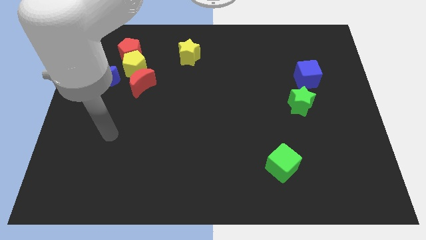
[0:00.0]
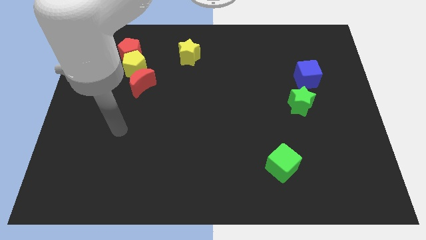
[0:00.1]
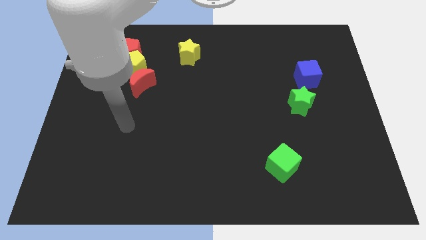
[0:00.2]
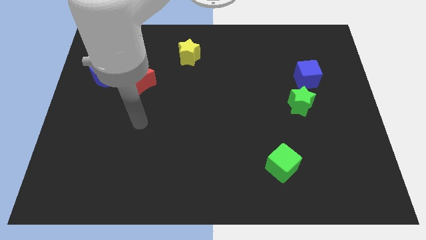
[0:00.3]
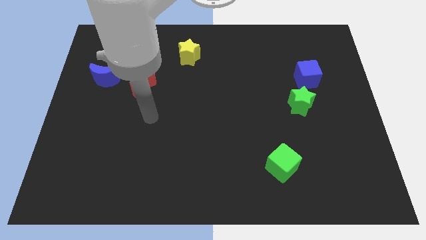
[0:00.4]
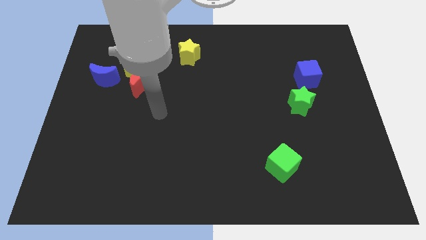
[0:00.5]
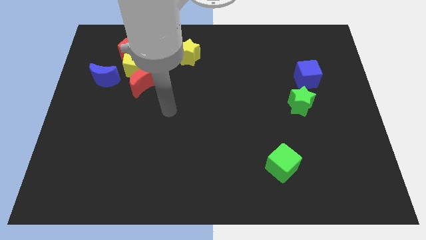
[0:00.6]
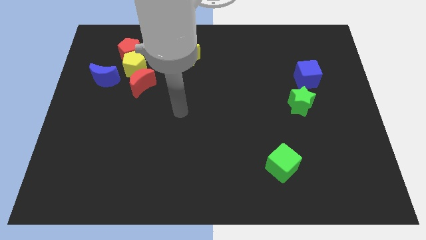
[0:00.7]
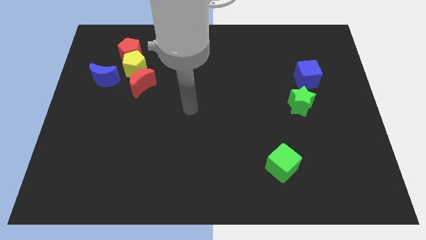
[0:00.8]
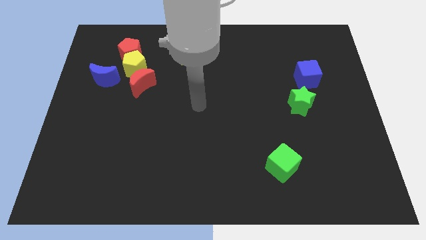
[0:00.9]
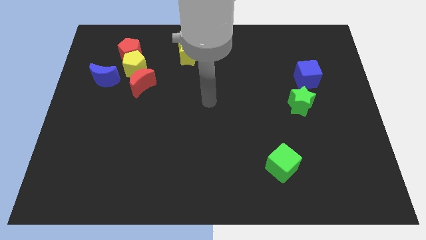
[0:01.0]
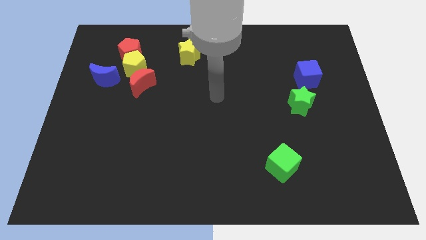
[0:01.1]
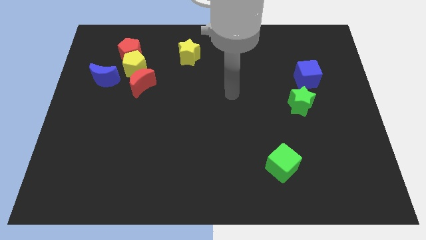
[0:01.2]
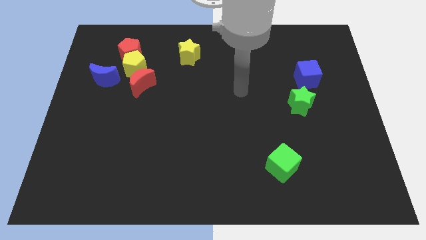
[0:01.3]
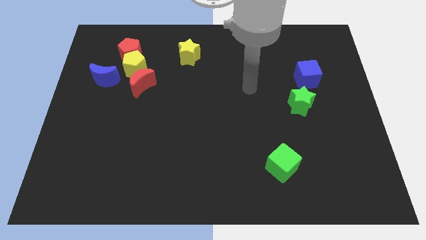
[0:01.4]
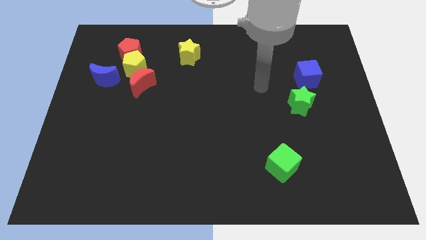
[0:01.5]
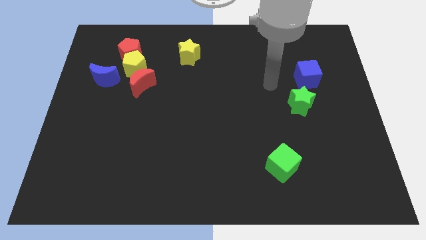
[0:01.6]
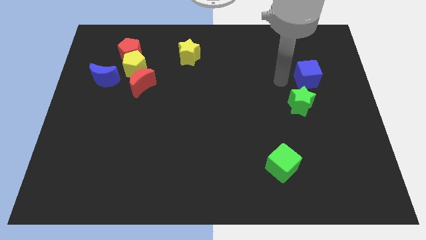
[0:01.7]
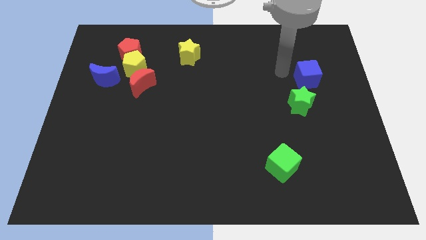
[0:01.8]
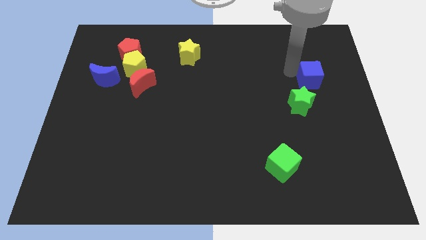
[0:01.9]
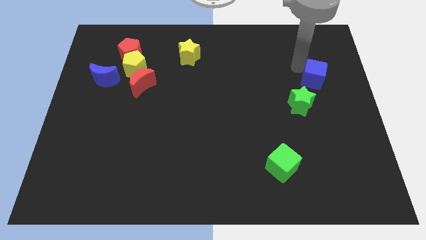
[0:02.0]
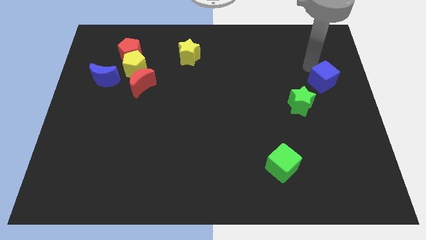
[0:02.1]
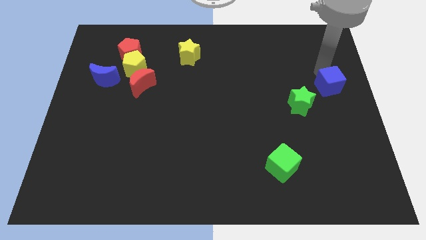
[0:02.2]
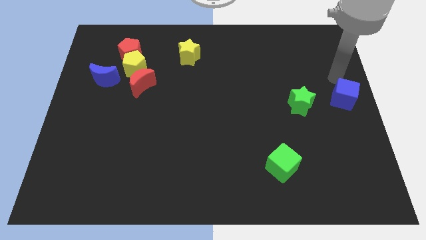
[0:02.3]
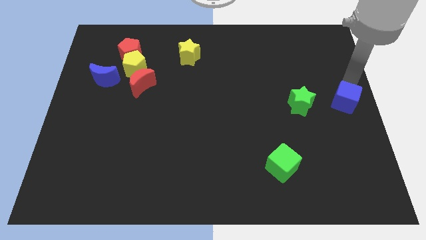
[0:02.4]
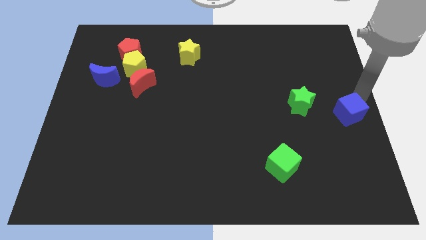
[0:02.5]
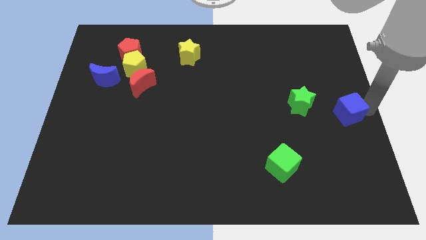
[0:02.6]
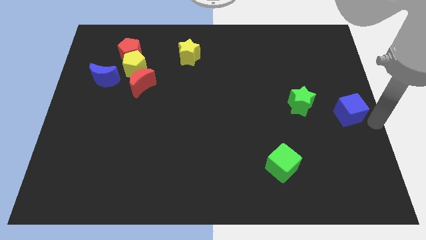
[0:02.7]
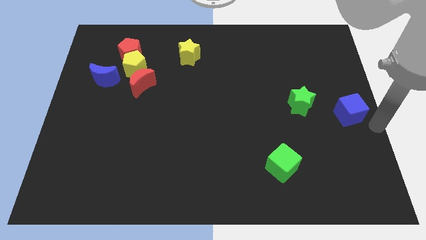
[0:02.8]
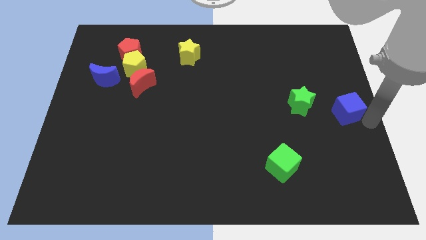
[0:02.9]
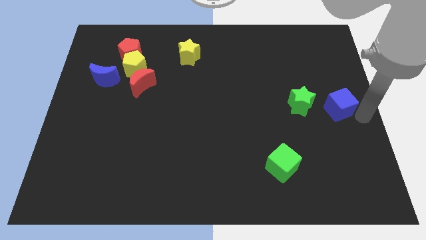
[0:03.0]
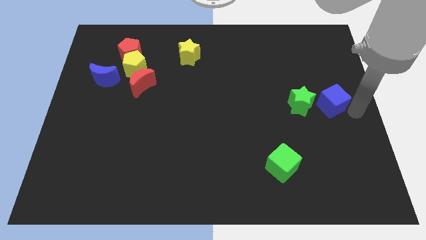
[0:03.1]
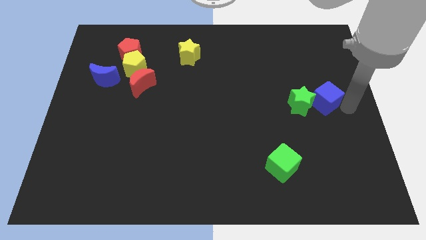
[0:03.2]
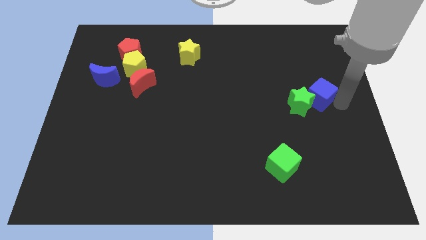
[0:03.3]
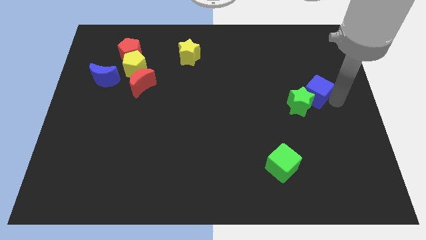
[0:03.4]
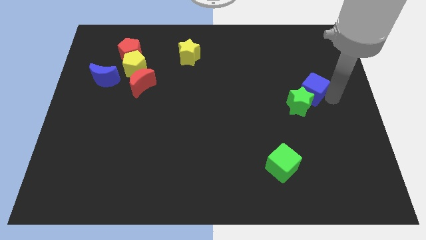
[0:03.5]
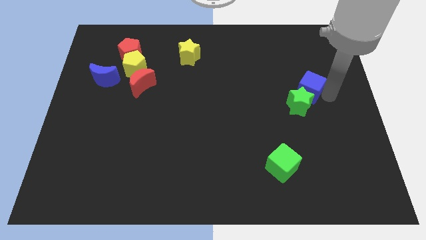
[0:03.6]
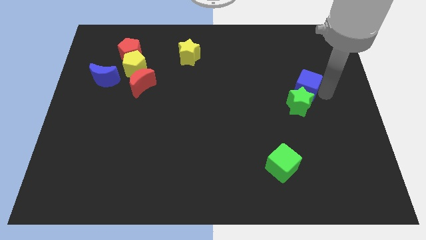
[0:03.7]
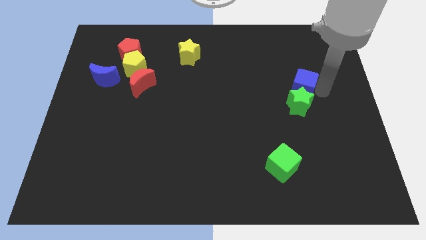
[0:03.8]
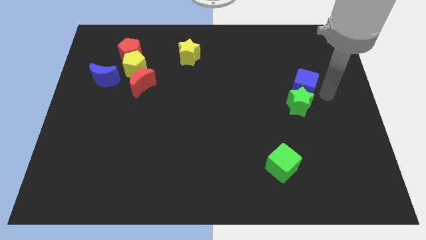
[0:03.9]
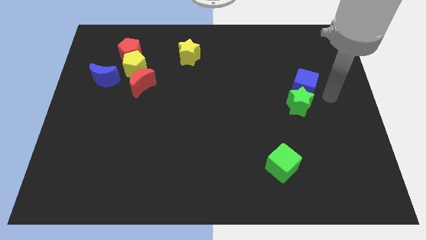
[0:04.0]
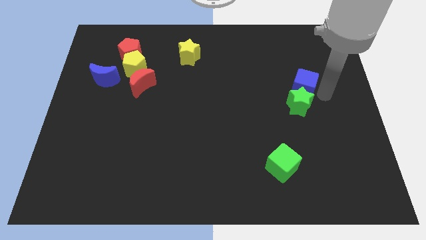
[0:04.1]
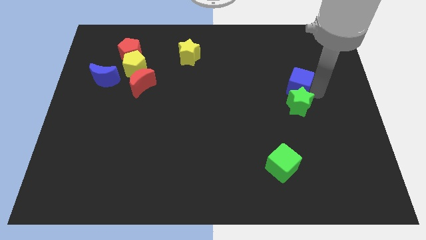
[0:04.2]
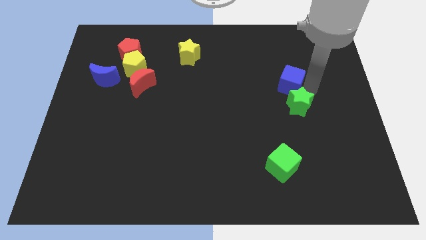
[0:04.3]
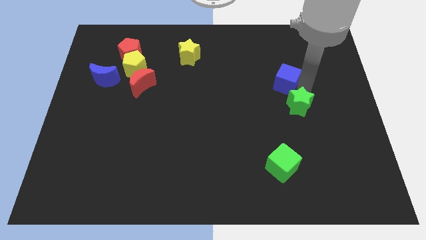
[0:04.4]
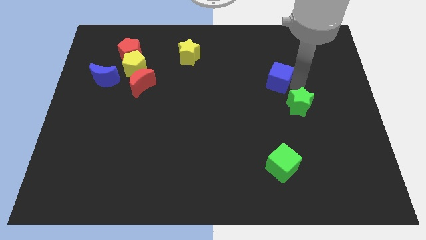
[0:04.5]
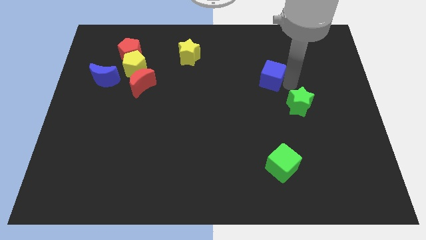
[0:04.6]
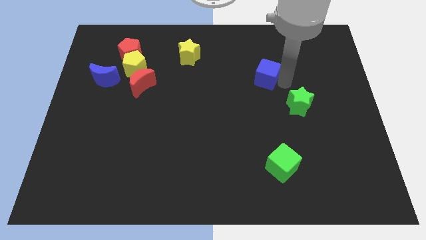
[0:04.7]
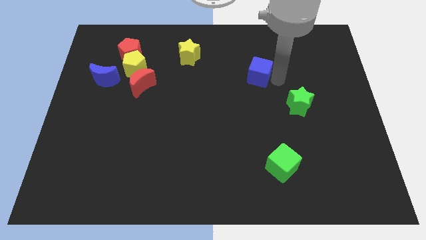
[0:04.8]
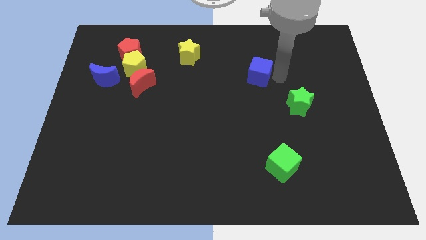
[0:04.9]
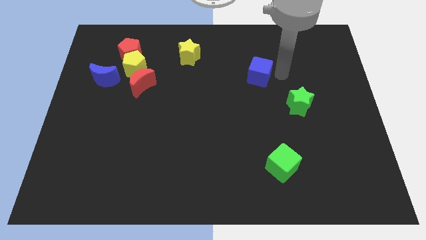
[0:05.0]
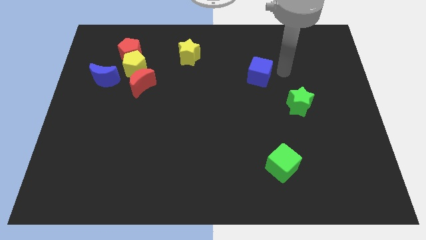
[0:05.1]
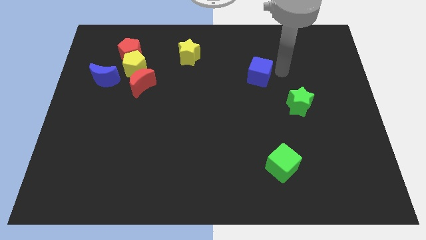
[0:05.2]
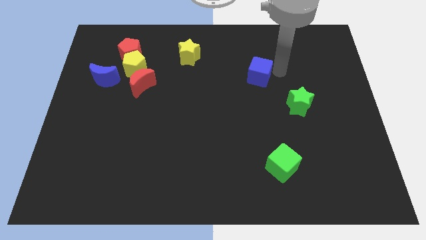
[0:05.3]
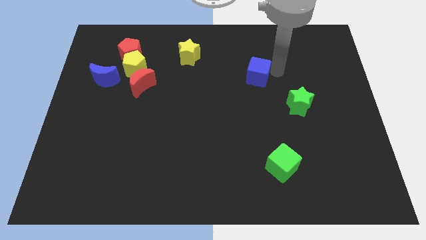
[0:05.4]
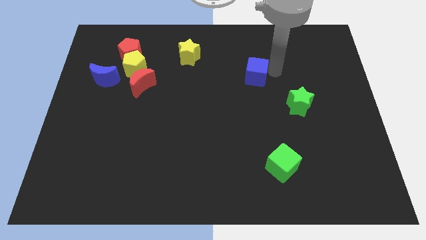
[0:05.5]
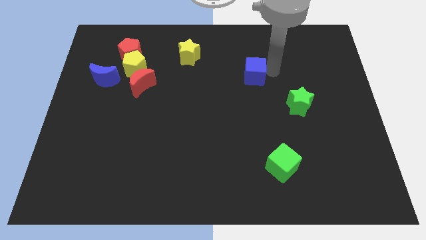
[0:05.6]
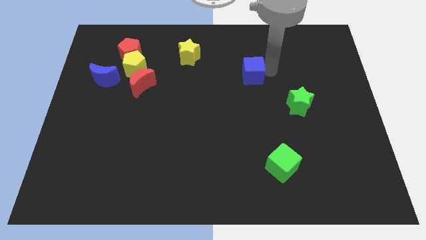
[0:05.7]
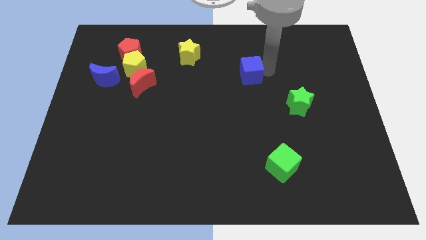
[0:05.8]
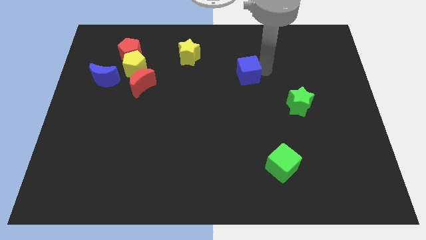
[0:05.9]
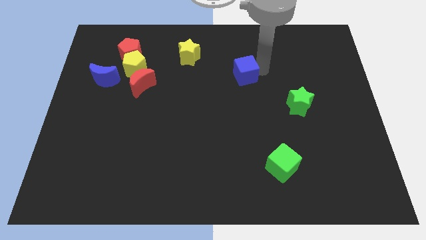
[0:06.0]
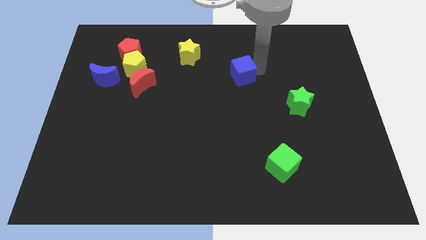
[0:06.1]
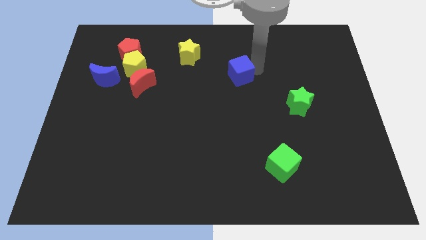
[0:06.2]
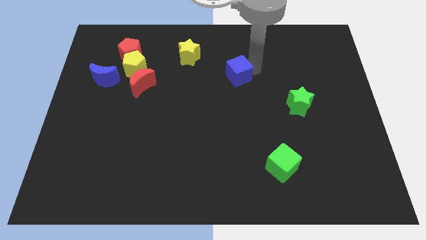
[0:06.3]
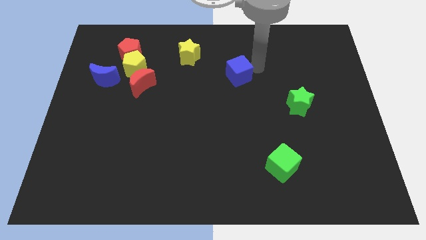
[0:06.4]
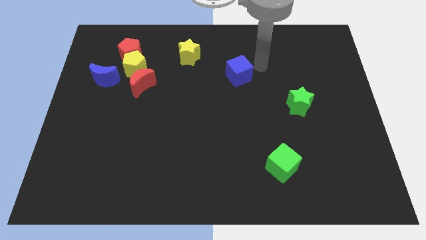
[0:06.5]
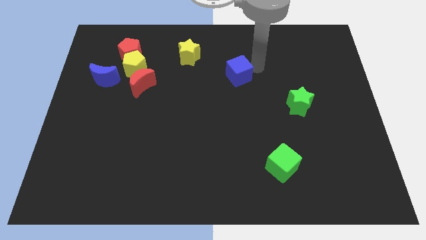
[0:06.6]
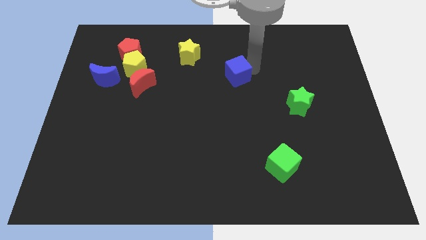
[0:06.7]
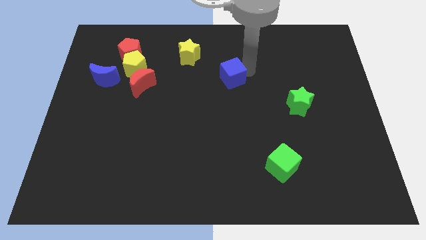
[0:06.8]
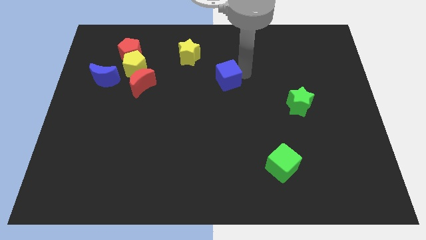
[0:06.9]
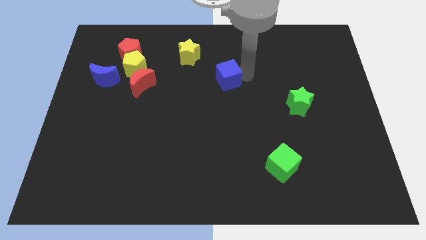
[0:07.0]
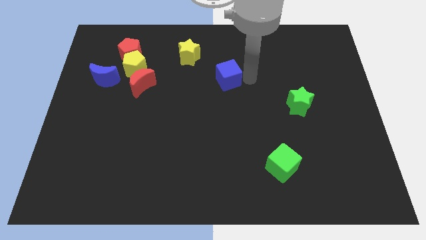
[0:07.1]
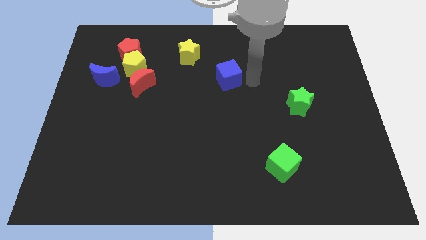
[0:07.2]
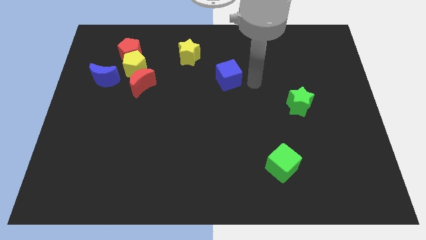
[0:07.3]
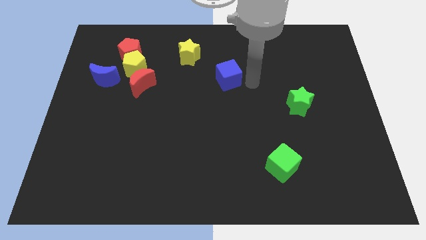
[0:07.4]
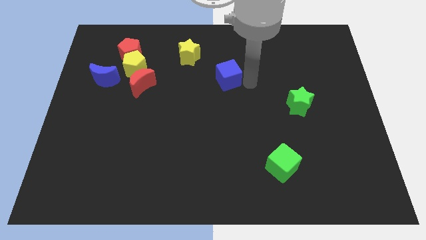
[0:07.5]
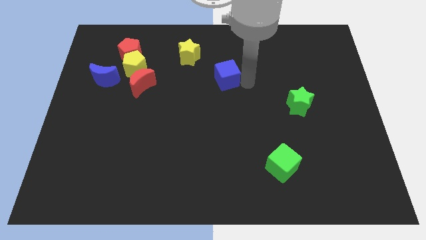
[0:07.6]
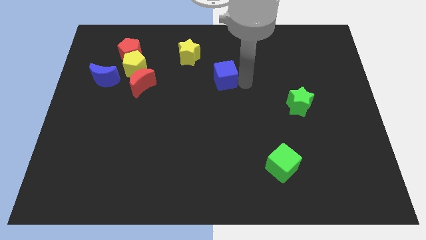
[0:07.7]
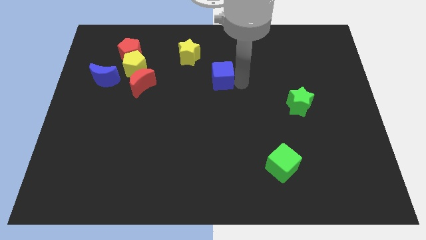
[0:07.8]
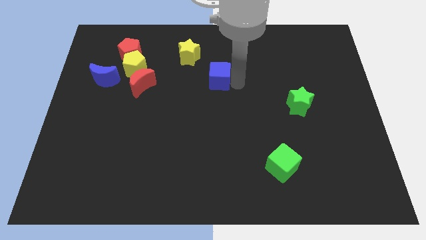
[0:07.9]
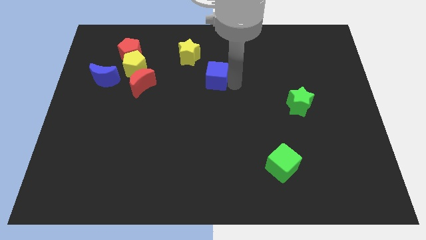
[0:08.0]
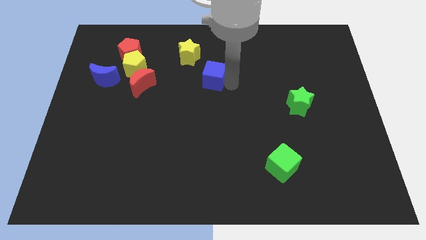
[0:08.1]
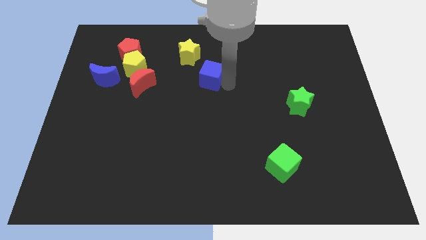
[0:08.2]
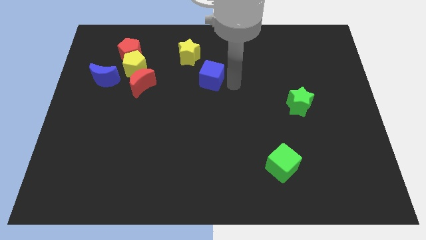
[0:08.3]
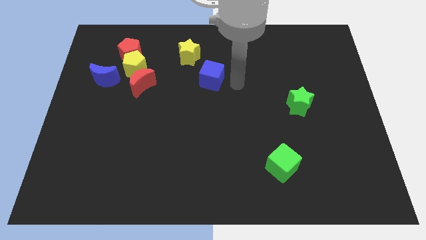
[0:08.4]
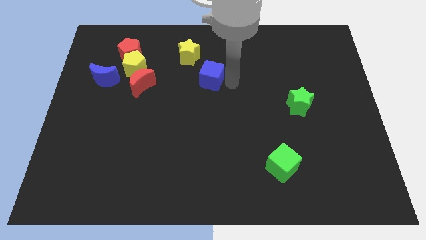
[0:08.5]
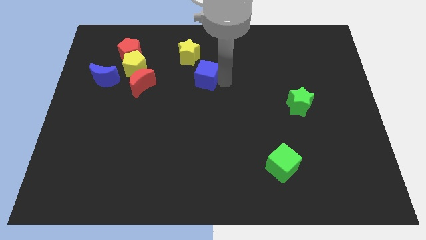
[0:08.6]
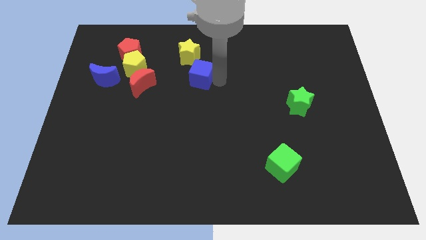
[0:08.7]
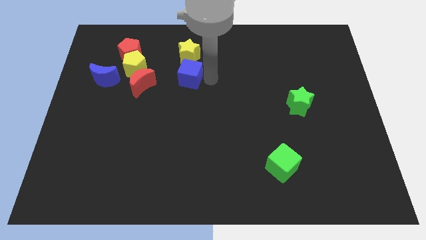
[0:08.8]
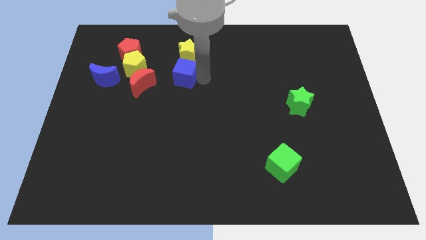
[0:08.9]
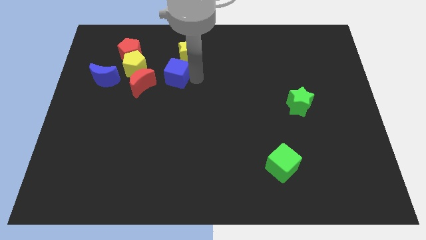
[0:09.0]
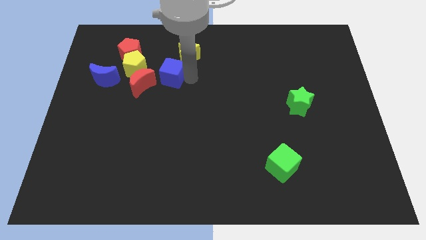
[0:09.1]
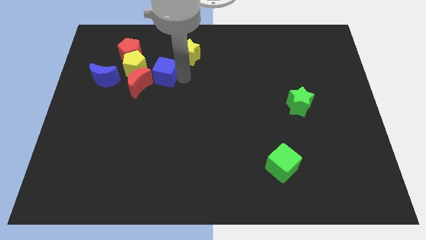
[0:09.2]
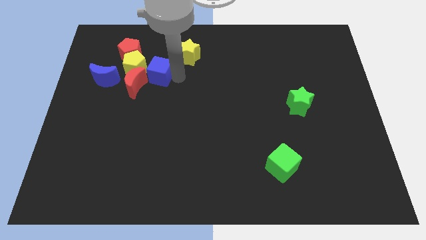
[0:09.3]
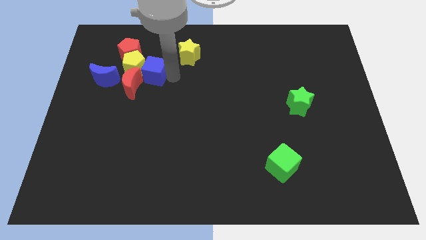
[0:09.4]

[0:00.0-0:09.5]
put the blue cube next to the yellow pentagon
